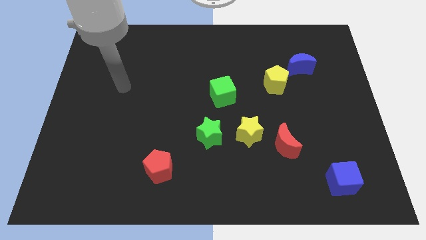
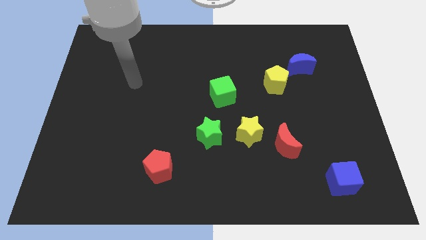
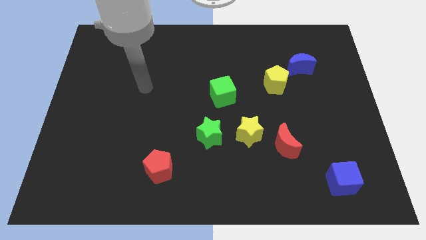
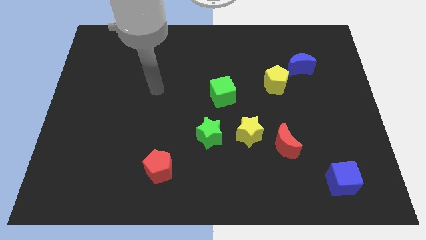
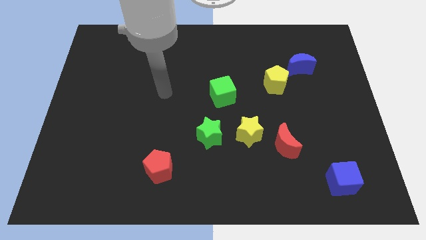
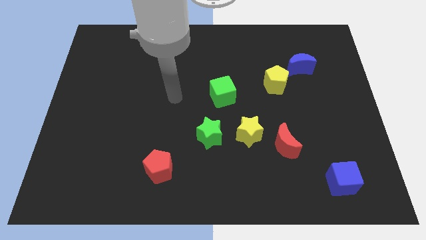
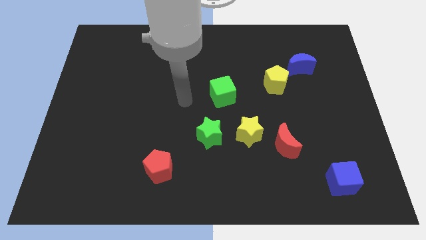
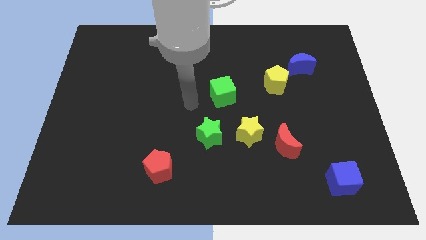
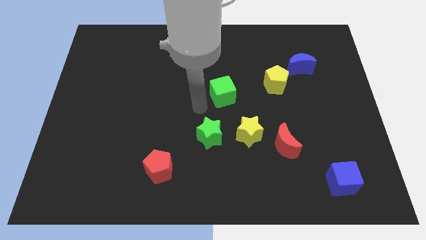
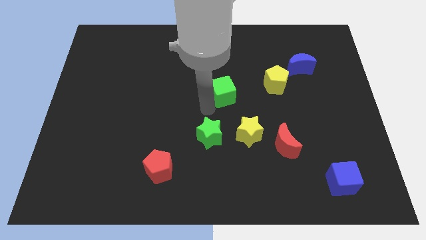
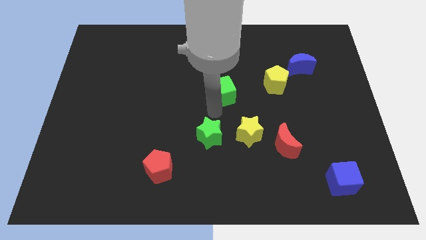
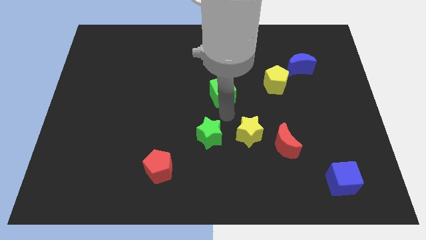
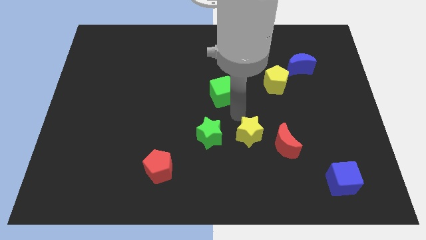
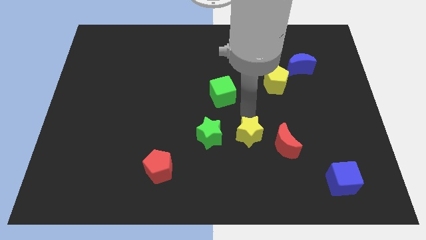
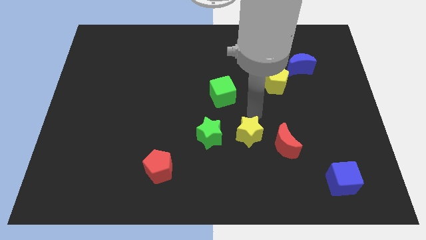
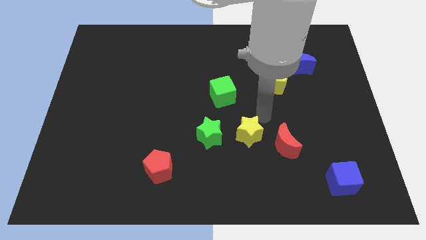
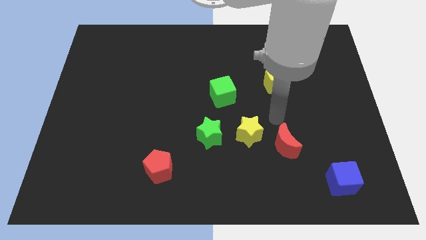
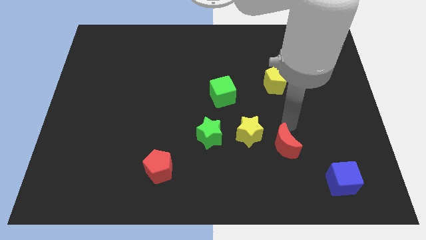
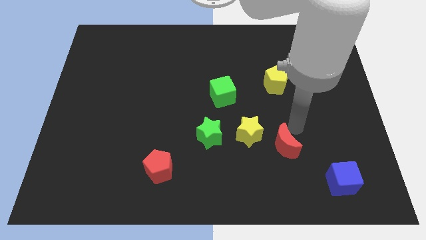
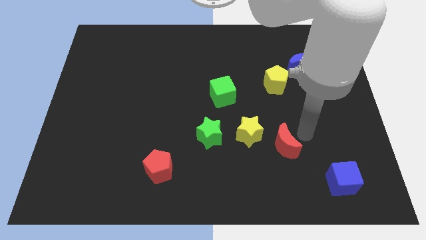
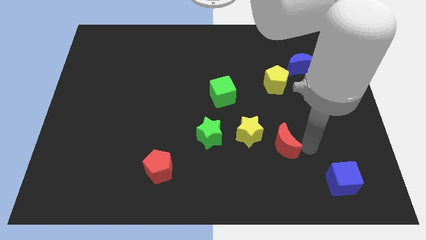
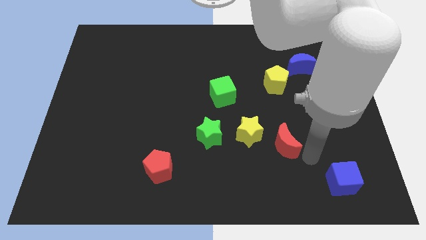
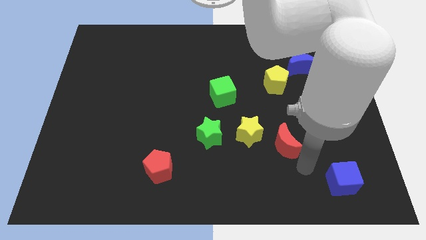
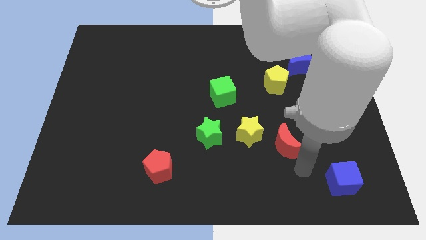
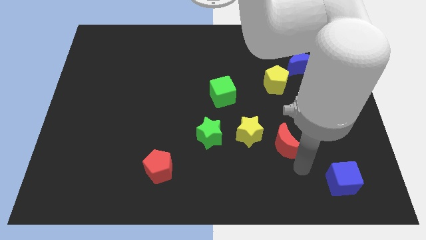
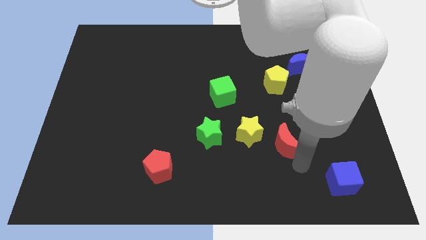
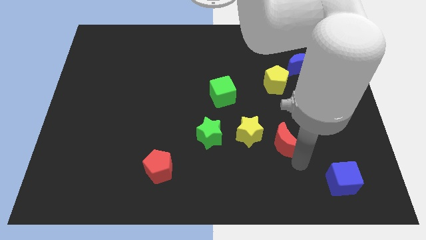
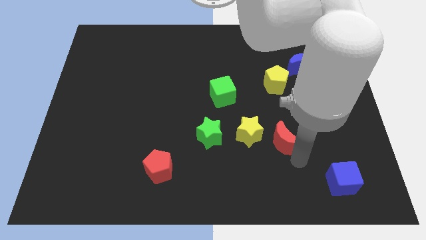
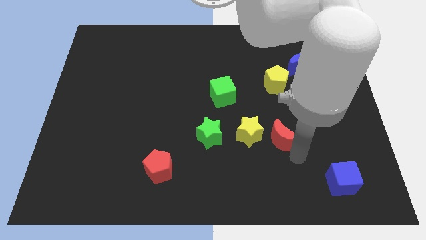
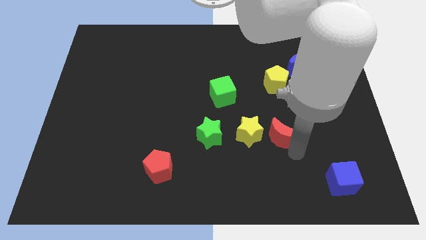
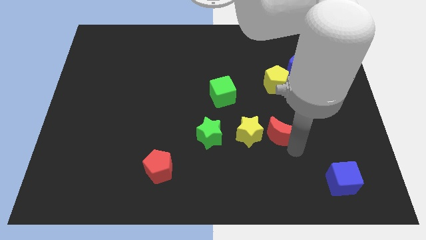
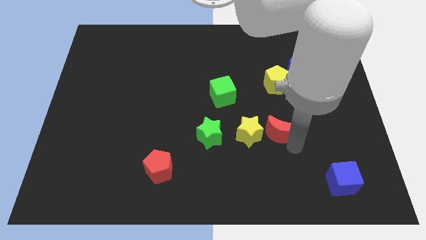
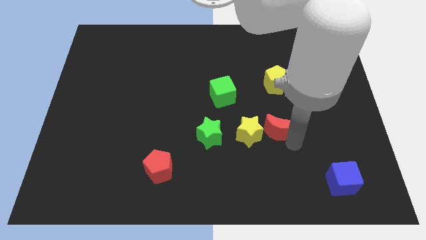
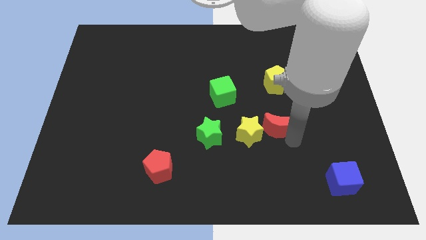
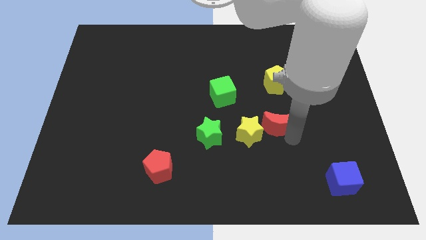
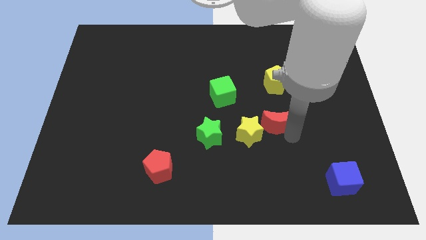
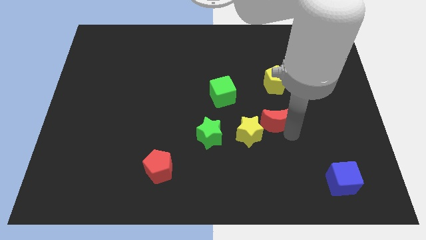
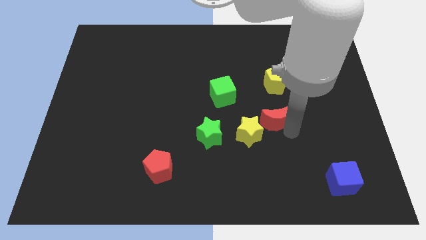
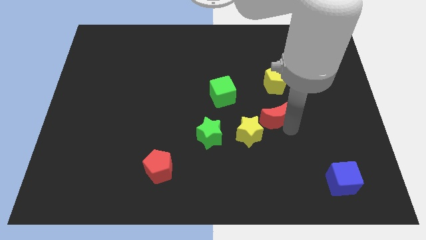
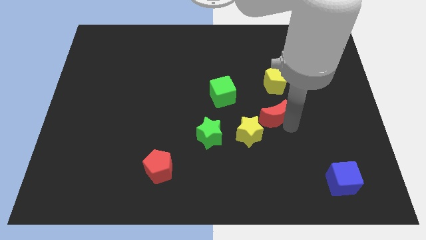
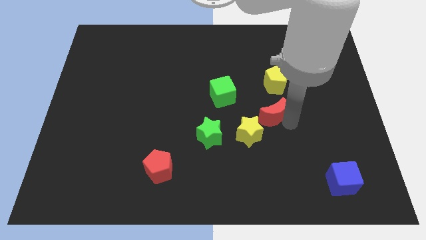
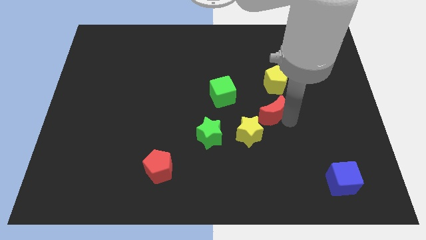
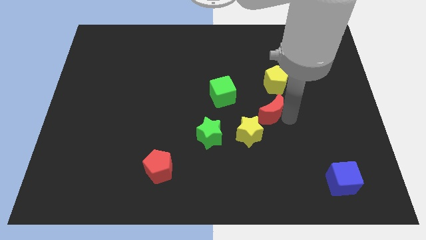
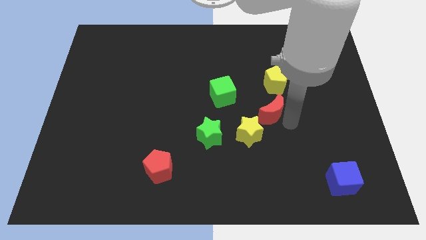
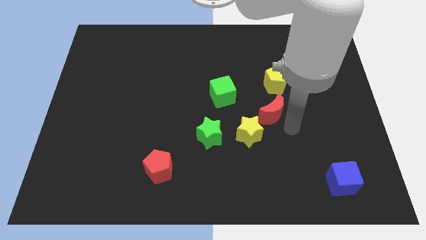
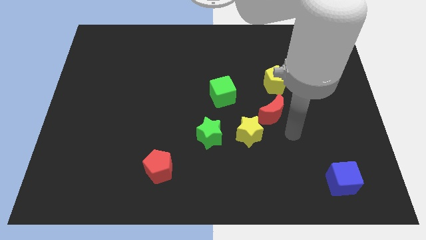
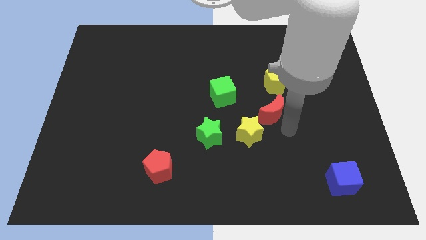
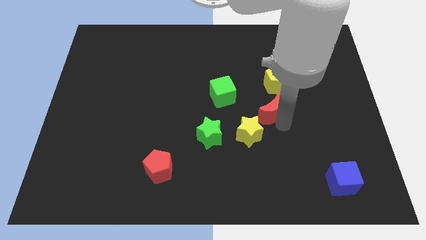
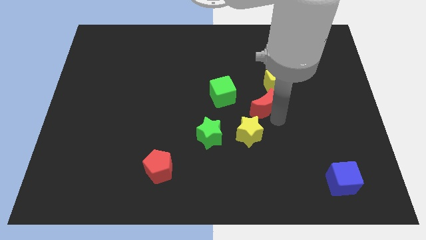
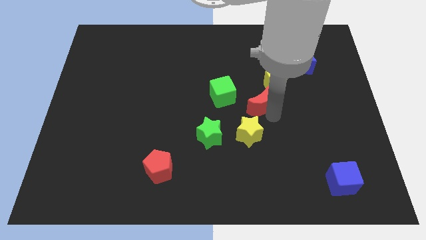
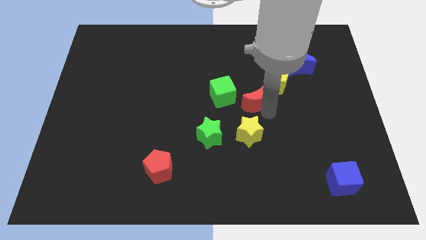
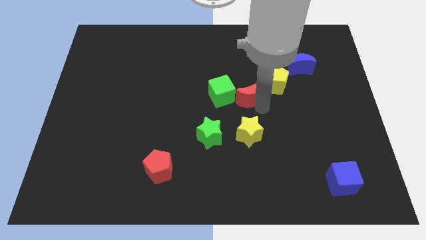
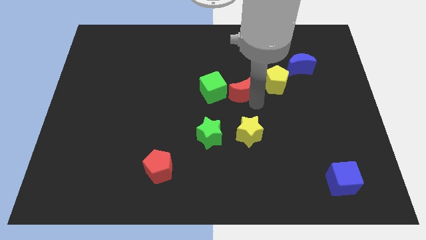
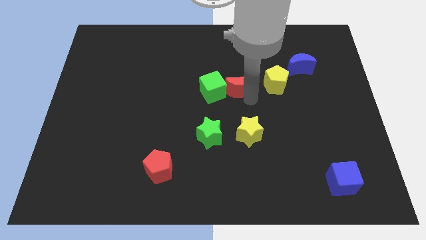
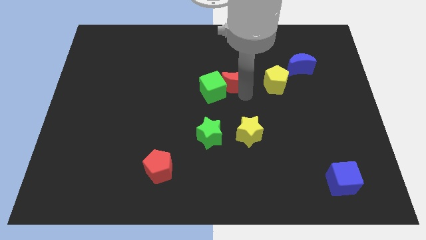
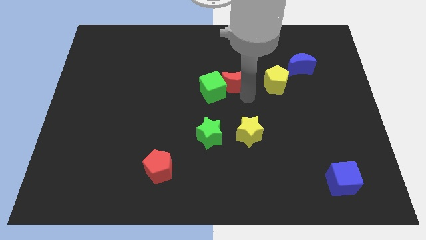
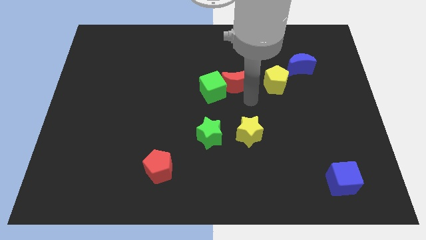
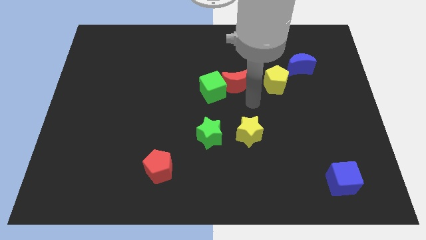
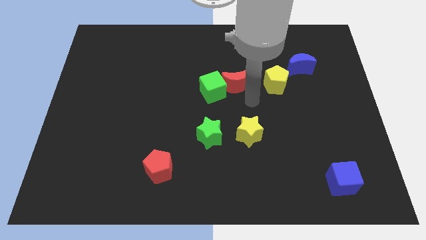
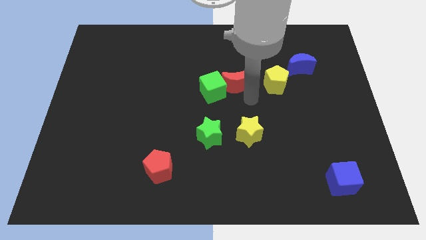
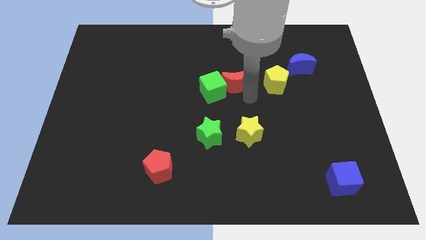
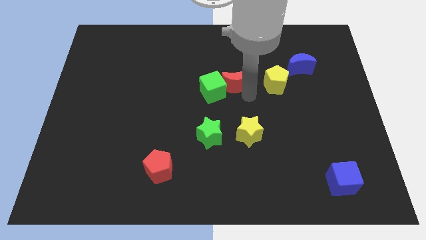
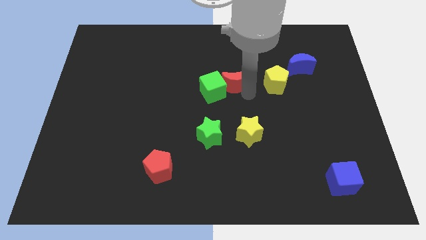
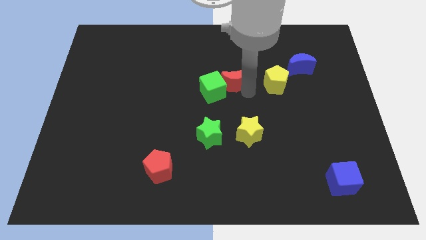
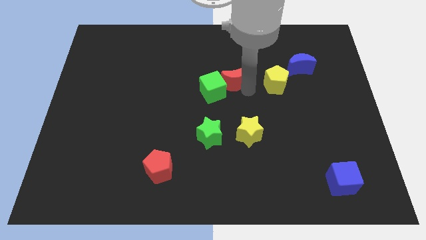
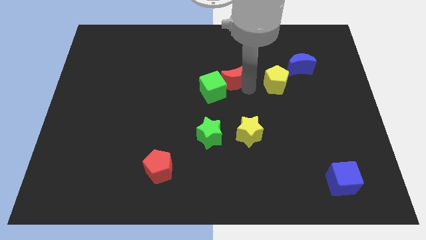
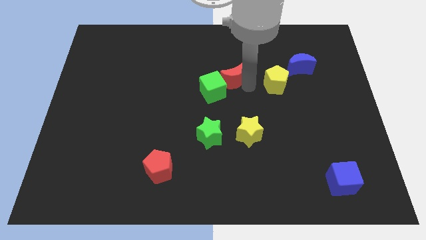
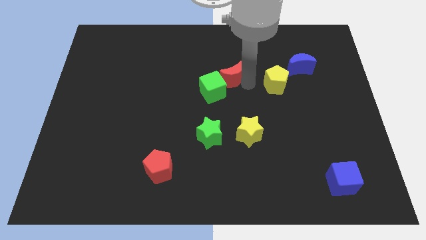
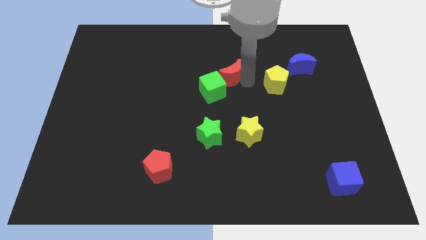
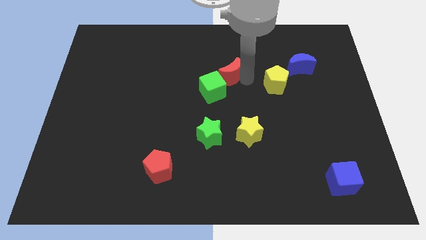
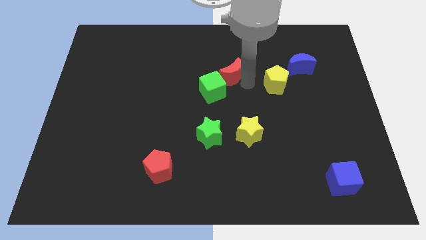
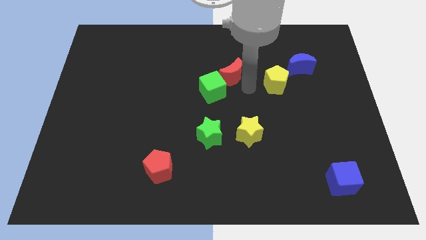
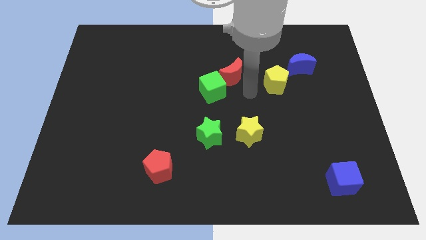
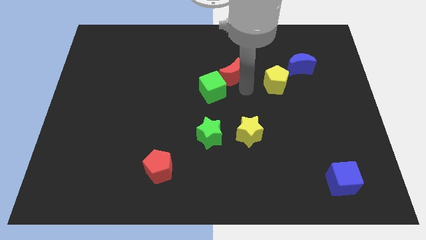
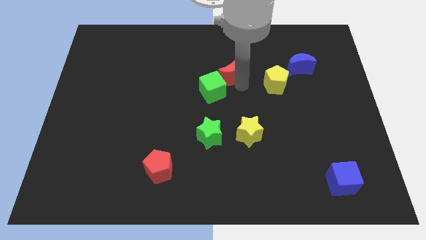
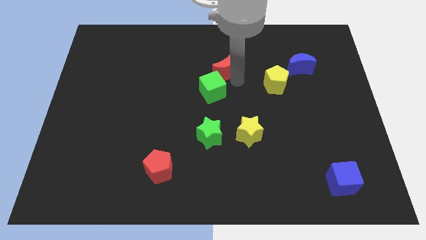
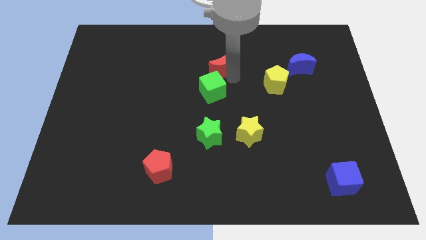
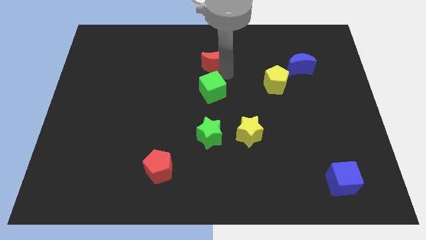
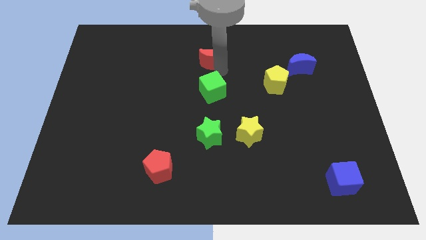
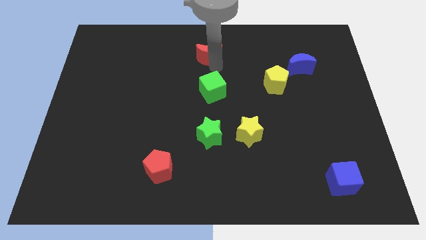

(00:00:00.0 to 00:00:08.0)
slide the red moon to the towards your base
